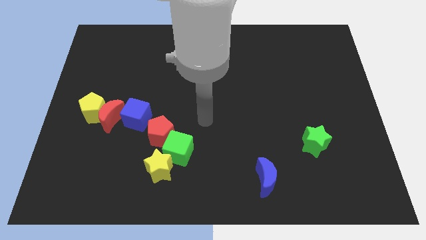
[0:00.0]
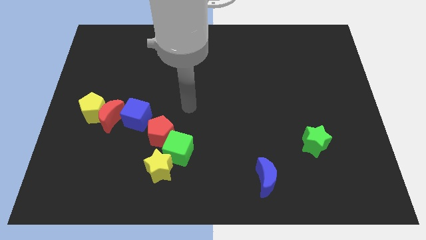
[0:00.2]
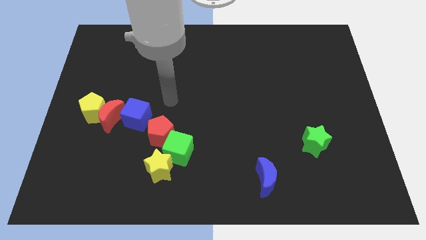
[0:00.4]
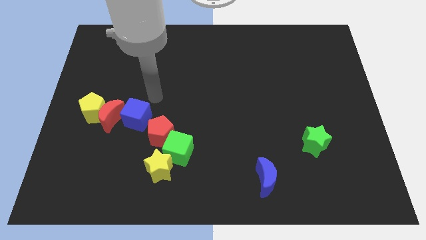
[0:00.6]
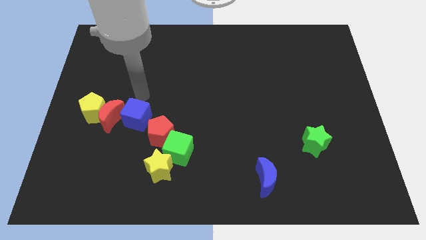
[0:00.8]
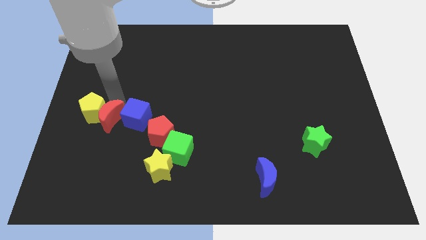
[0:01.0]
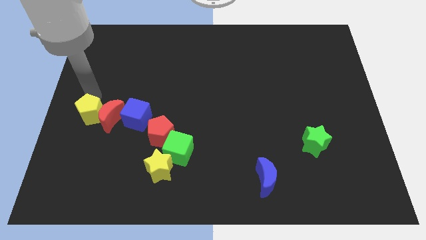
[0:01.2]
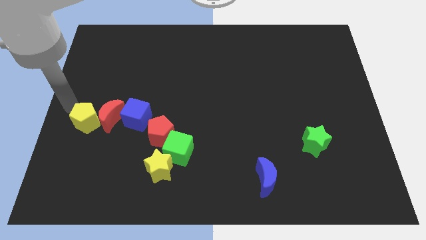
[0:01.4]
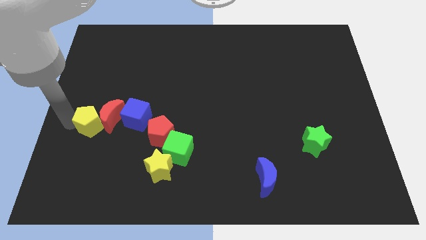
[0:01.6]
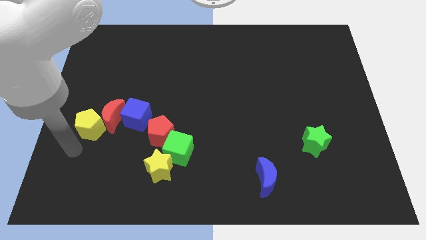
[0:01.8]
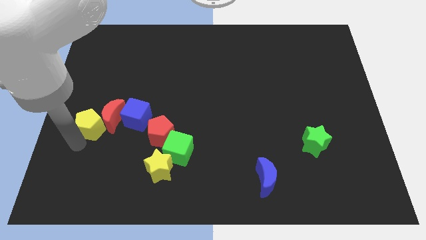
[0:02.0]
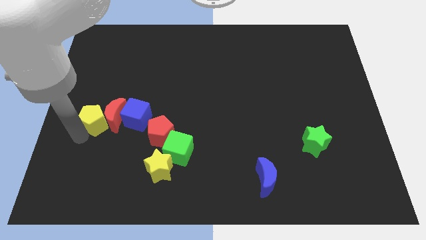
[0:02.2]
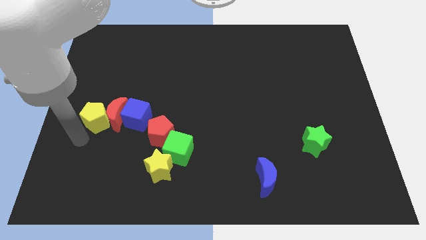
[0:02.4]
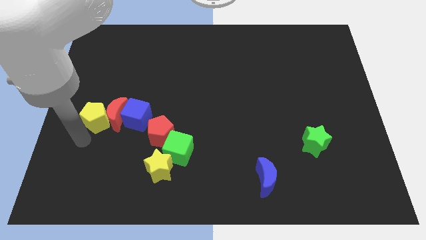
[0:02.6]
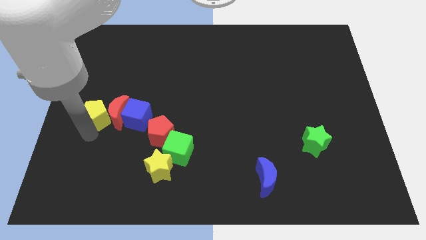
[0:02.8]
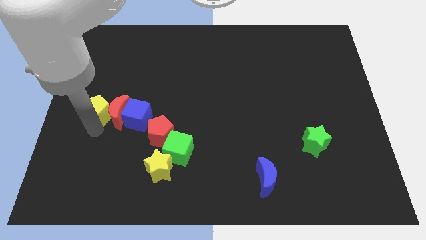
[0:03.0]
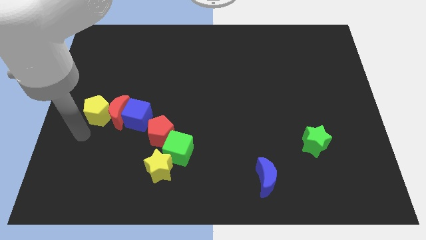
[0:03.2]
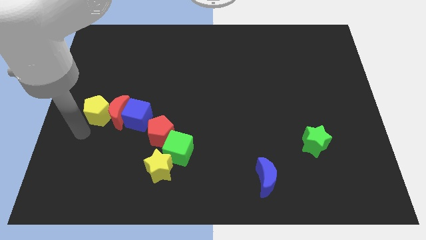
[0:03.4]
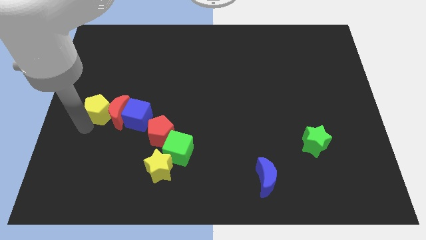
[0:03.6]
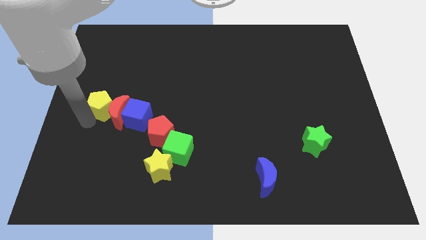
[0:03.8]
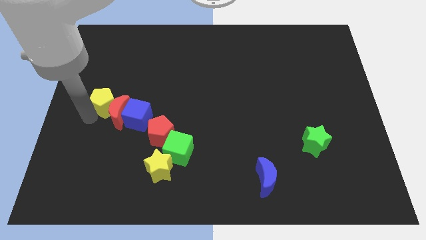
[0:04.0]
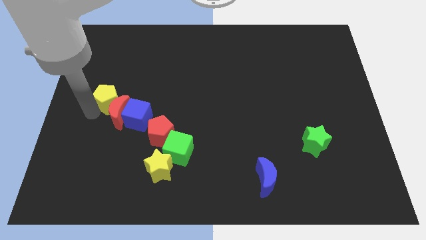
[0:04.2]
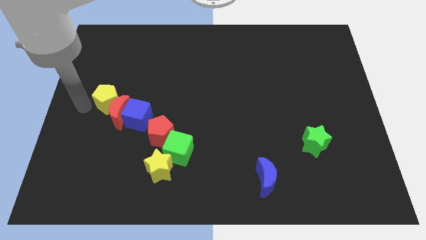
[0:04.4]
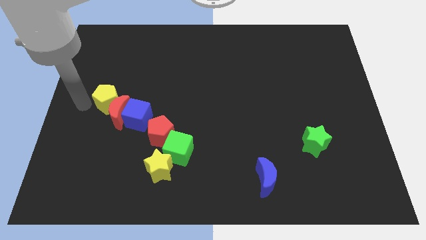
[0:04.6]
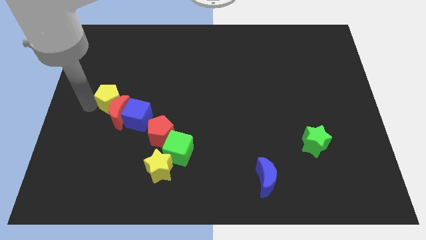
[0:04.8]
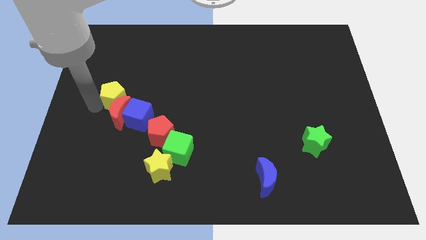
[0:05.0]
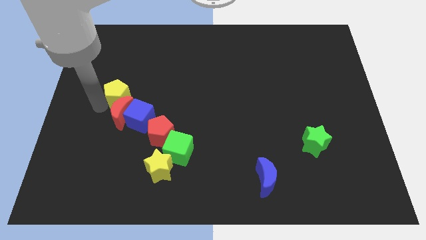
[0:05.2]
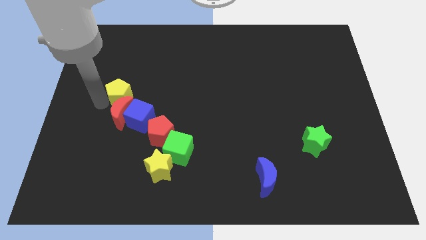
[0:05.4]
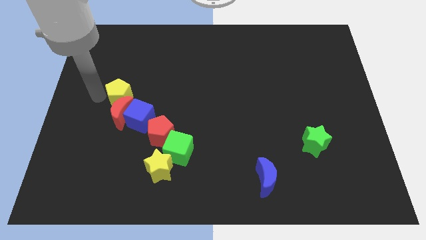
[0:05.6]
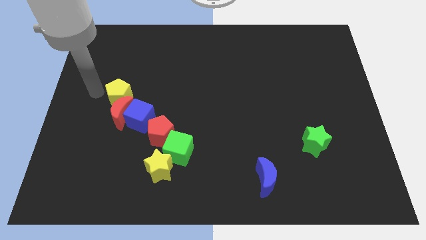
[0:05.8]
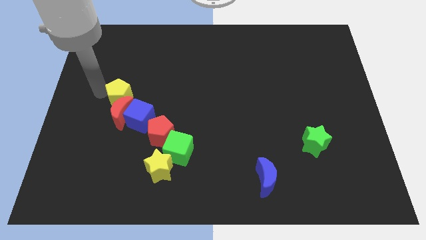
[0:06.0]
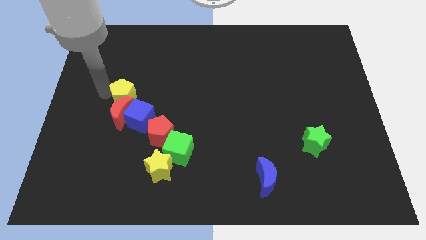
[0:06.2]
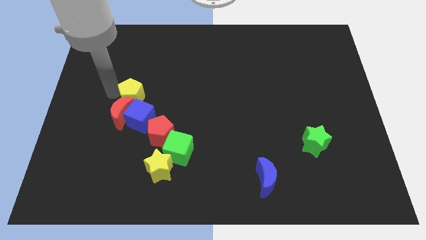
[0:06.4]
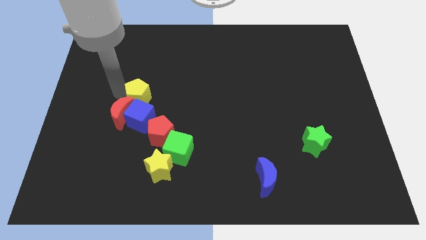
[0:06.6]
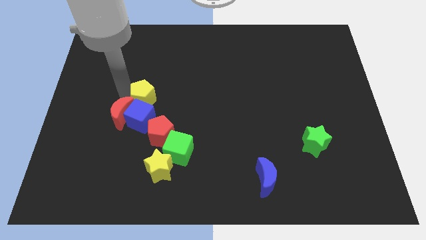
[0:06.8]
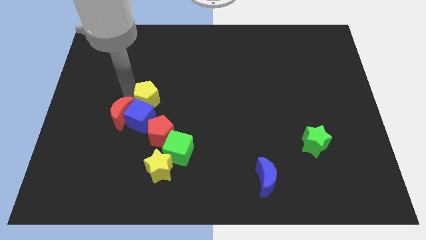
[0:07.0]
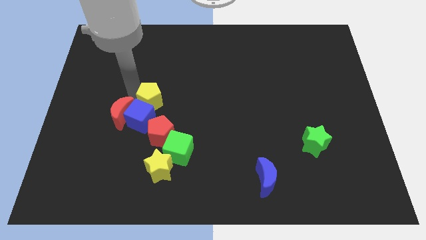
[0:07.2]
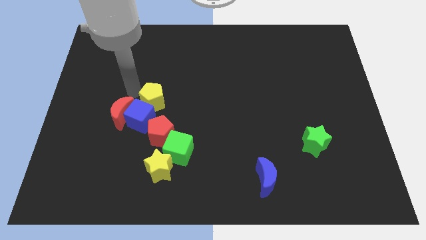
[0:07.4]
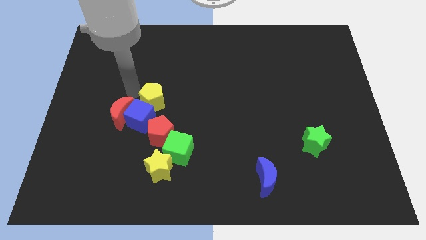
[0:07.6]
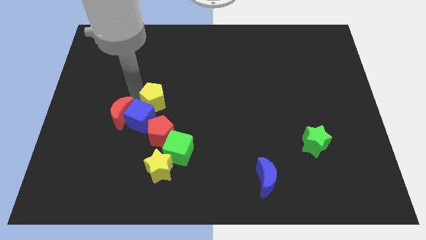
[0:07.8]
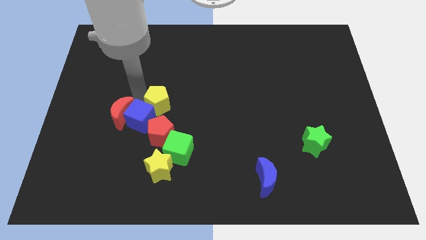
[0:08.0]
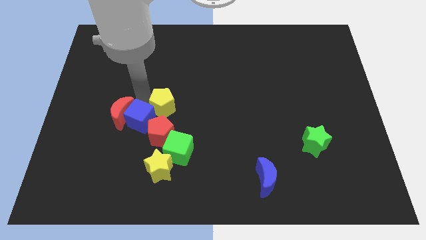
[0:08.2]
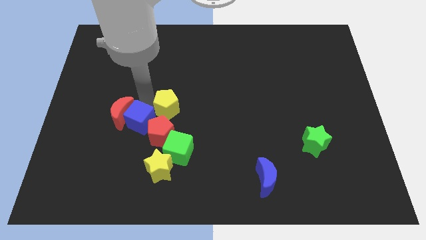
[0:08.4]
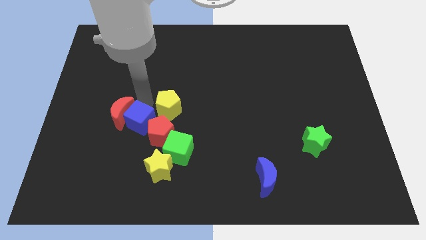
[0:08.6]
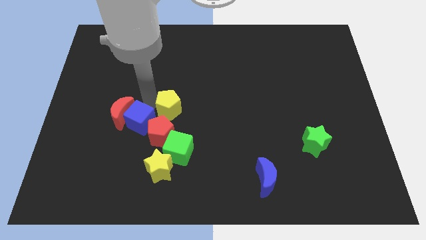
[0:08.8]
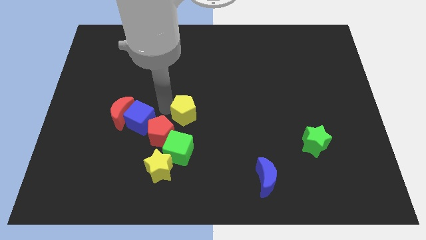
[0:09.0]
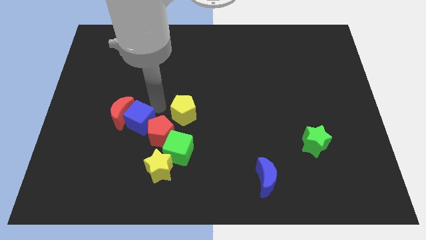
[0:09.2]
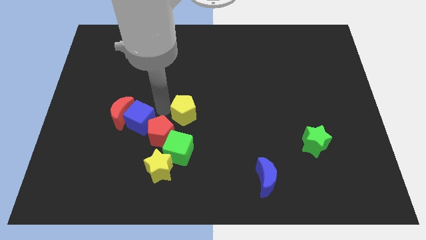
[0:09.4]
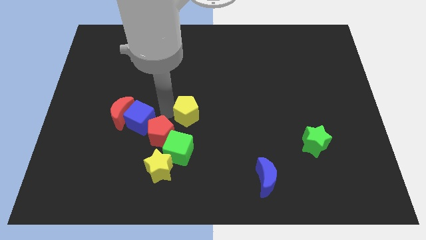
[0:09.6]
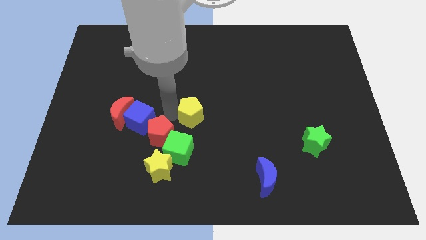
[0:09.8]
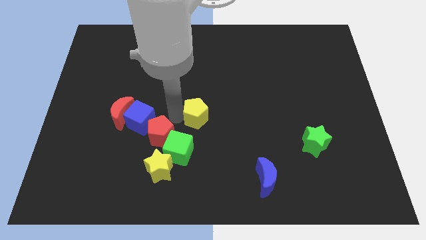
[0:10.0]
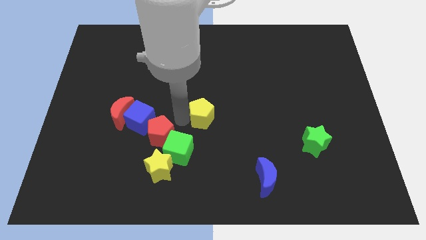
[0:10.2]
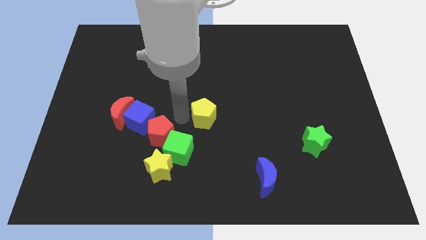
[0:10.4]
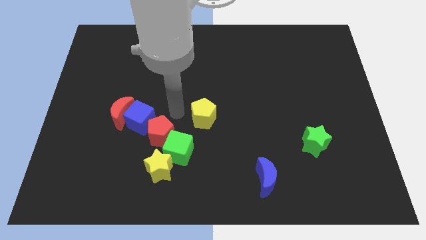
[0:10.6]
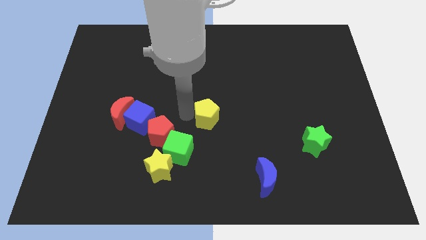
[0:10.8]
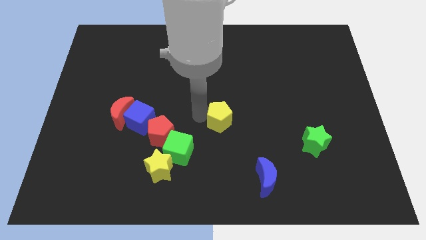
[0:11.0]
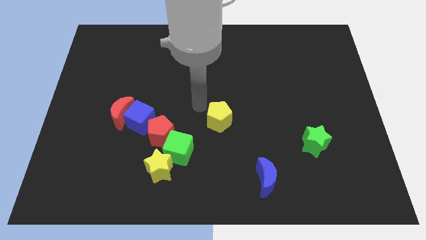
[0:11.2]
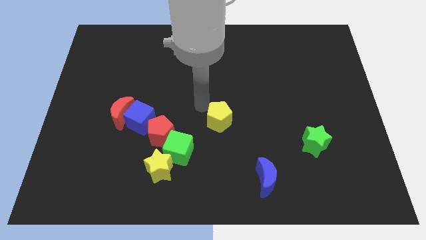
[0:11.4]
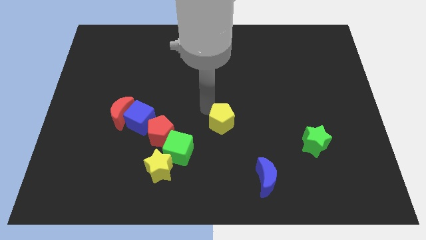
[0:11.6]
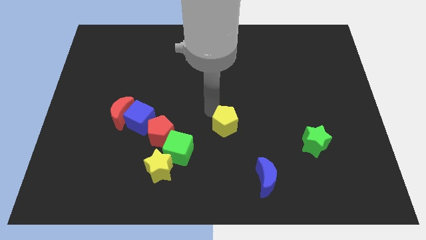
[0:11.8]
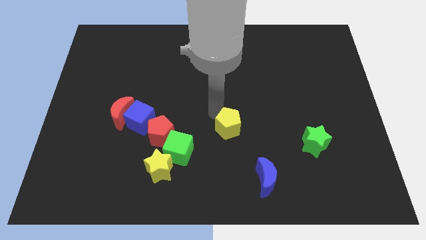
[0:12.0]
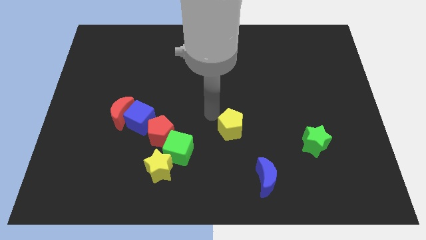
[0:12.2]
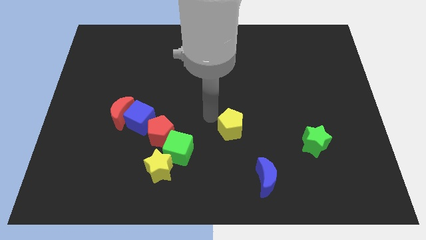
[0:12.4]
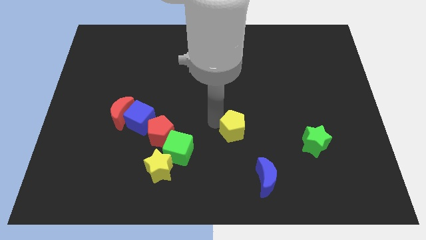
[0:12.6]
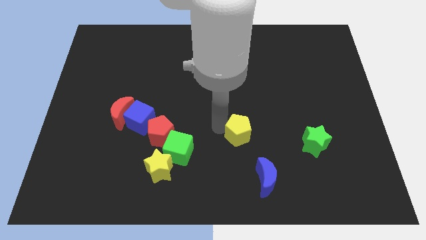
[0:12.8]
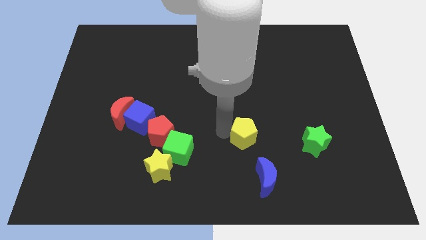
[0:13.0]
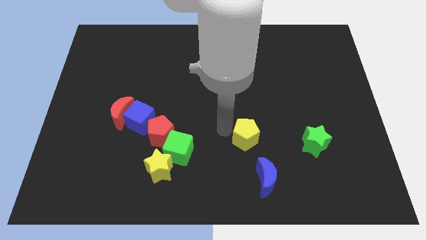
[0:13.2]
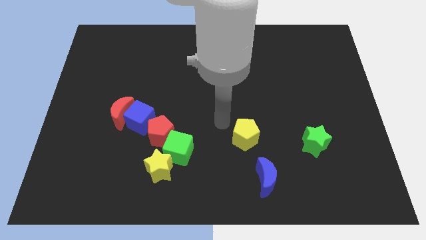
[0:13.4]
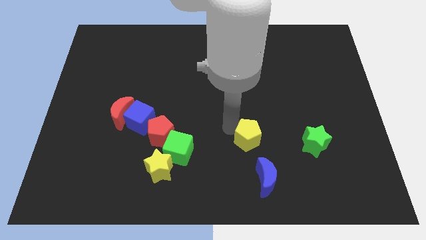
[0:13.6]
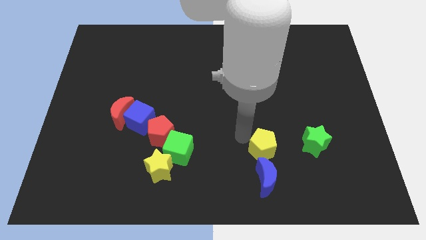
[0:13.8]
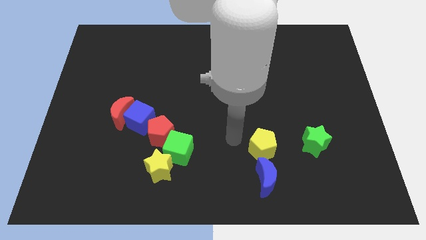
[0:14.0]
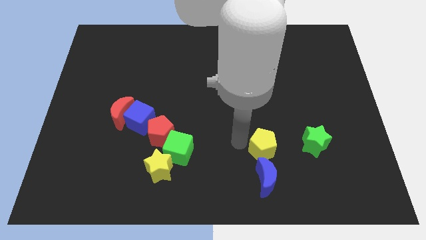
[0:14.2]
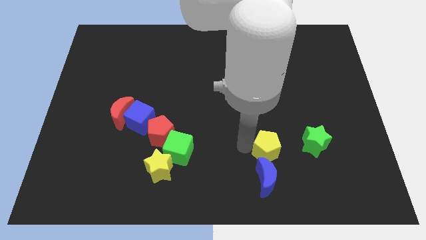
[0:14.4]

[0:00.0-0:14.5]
slide the yellow pentagon to the top right side of the blue moon

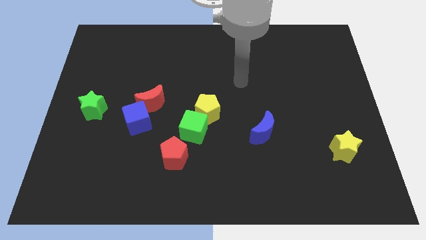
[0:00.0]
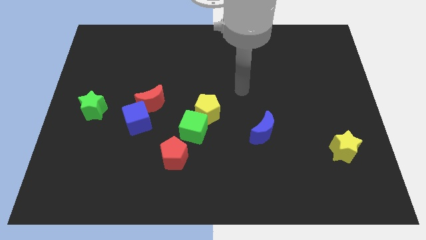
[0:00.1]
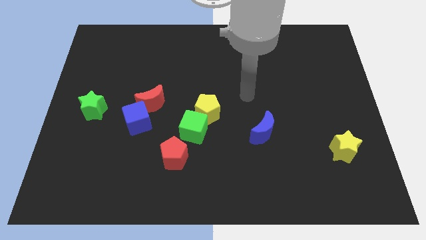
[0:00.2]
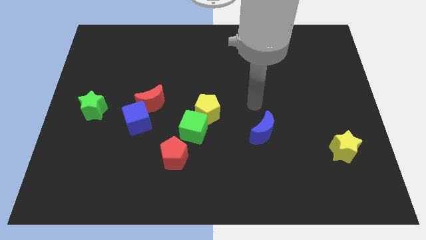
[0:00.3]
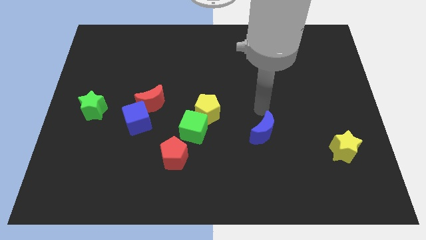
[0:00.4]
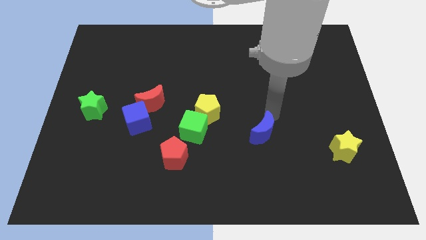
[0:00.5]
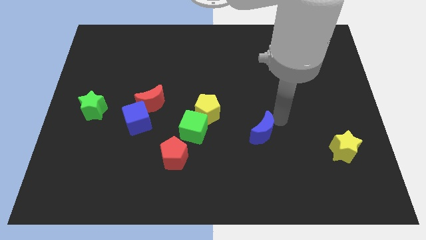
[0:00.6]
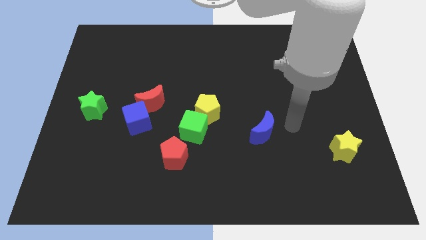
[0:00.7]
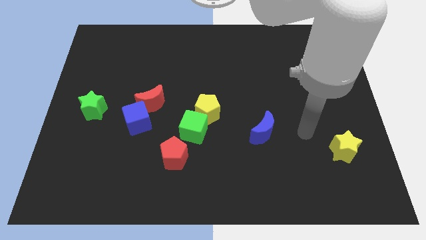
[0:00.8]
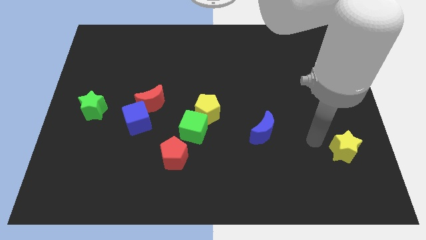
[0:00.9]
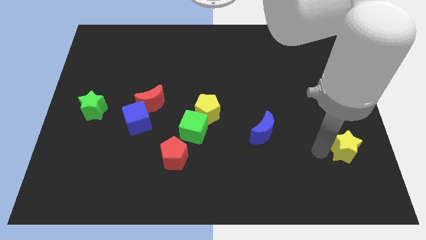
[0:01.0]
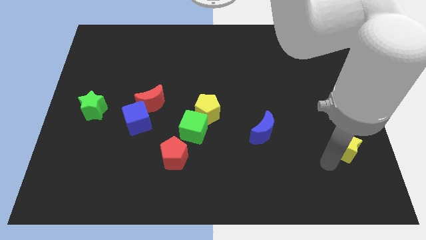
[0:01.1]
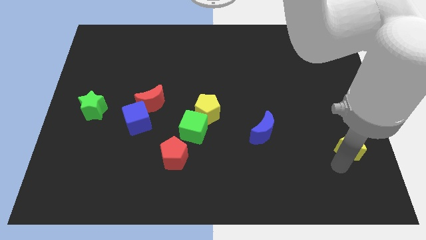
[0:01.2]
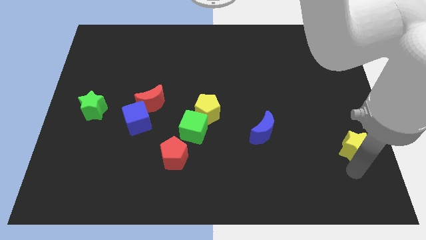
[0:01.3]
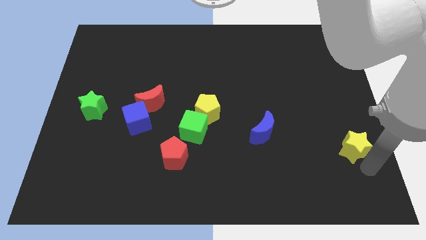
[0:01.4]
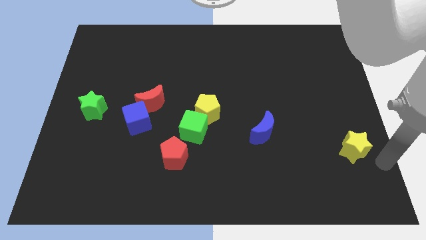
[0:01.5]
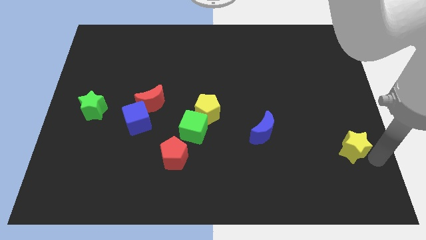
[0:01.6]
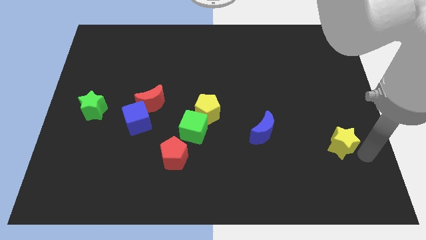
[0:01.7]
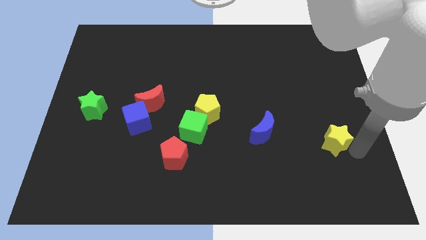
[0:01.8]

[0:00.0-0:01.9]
push the yellow star to the right of the blue moon
